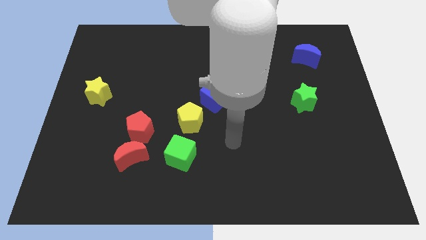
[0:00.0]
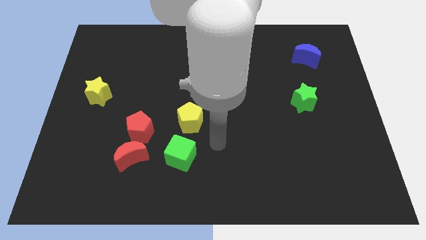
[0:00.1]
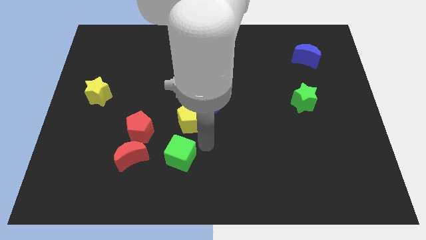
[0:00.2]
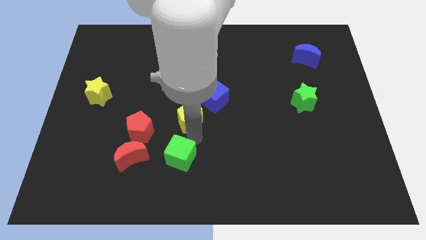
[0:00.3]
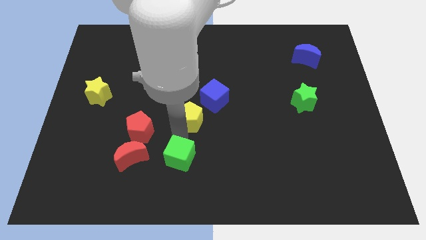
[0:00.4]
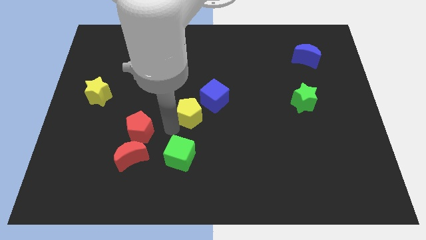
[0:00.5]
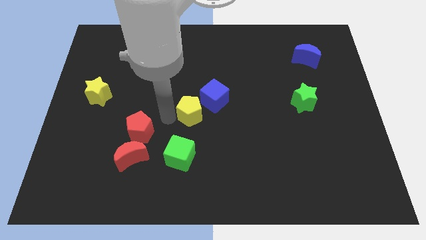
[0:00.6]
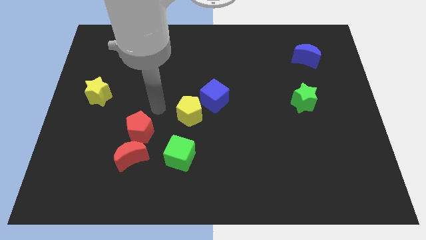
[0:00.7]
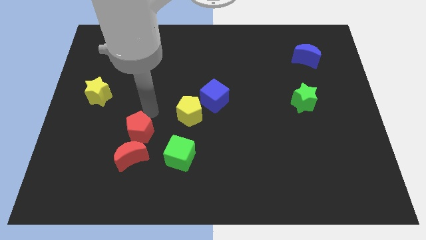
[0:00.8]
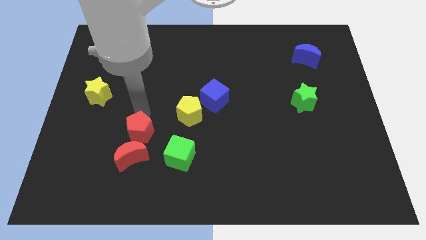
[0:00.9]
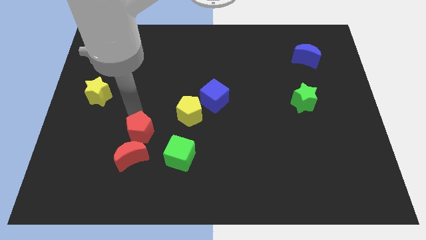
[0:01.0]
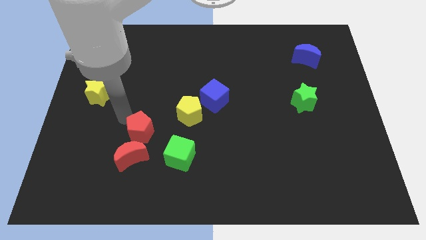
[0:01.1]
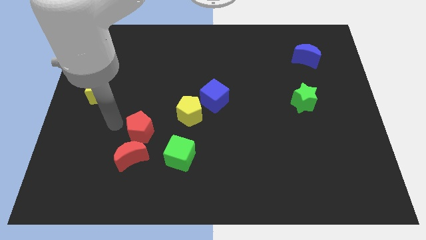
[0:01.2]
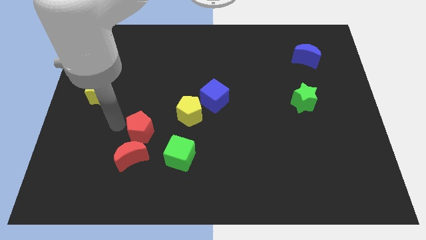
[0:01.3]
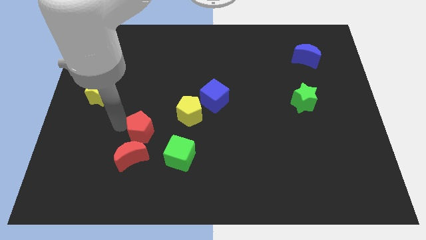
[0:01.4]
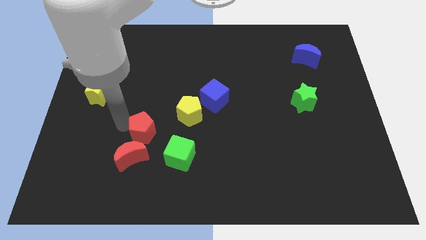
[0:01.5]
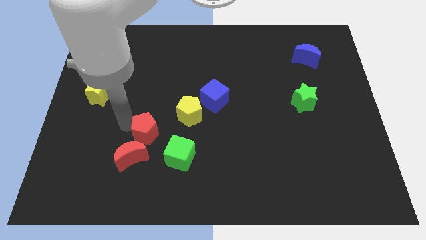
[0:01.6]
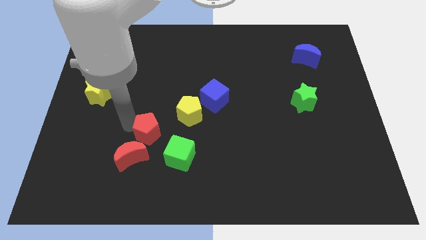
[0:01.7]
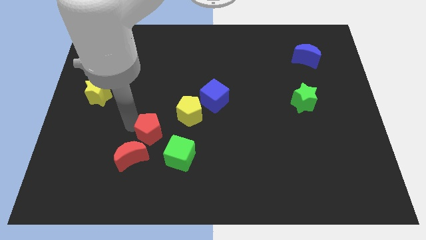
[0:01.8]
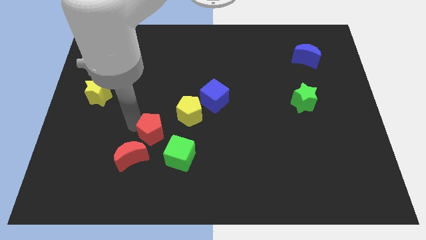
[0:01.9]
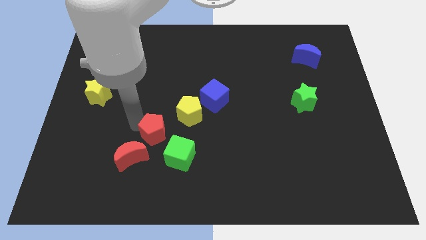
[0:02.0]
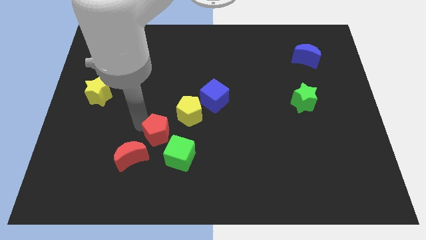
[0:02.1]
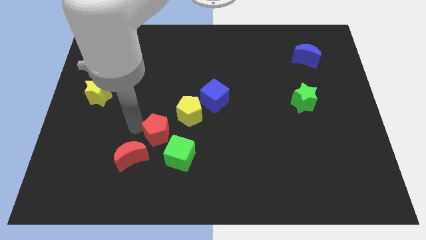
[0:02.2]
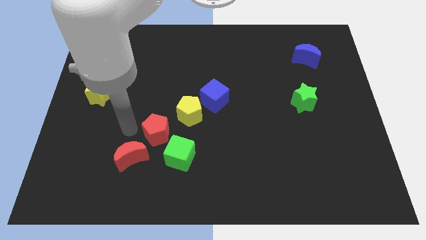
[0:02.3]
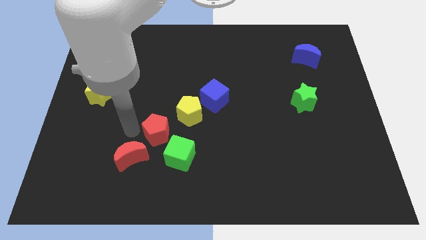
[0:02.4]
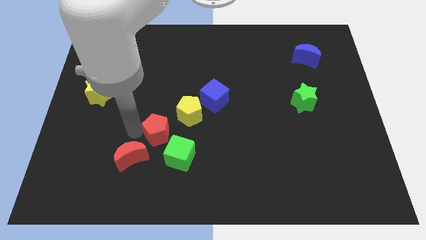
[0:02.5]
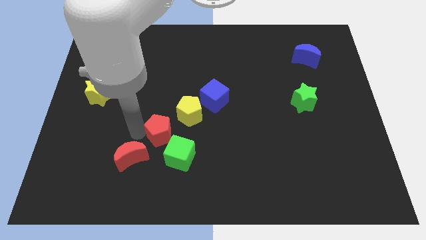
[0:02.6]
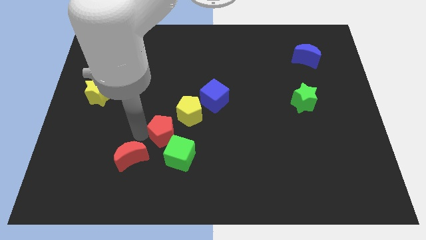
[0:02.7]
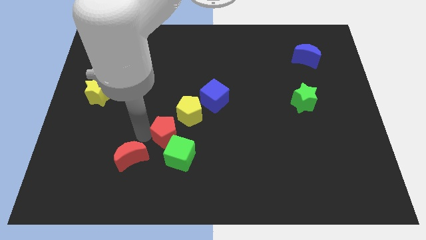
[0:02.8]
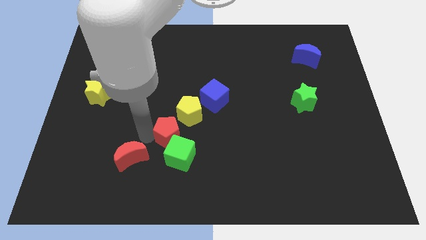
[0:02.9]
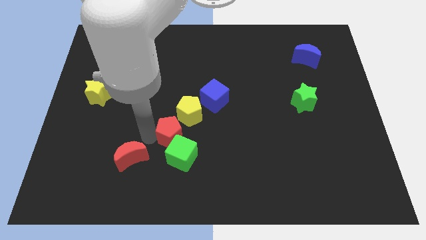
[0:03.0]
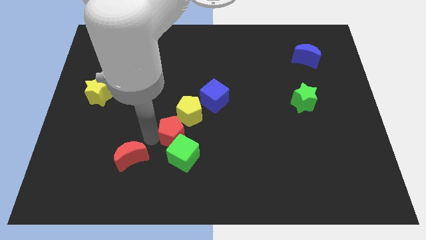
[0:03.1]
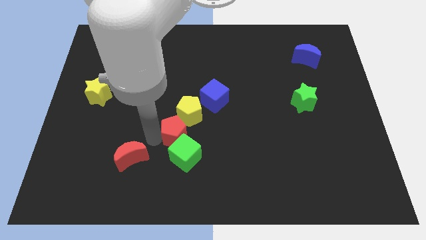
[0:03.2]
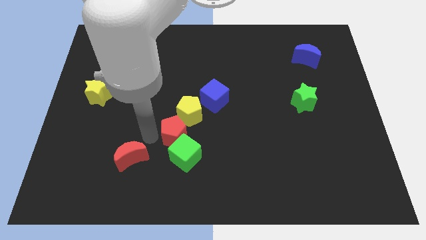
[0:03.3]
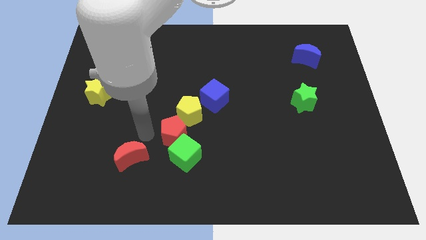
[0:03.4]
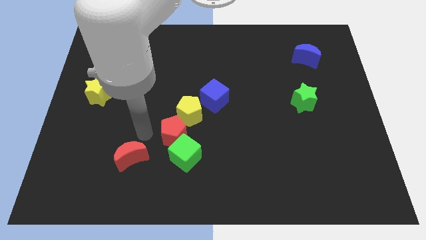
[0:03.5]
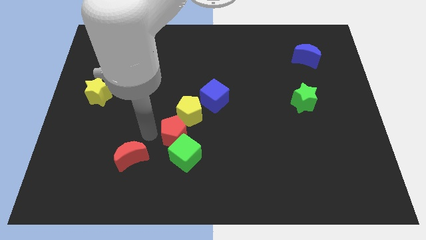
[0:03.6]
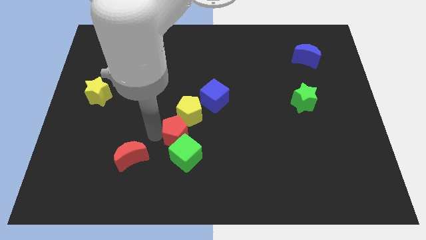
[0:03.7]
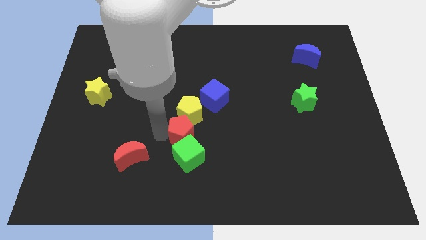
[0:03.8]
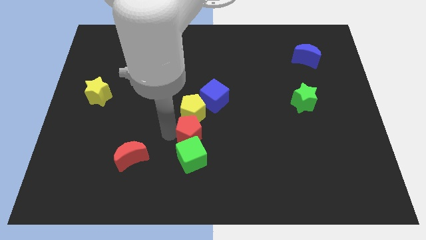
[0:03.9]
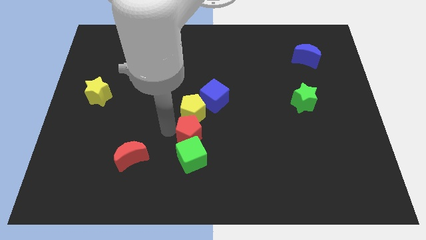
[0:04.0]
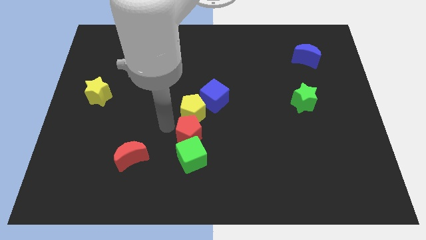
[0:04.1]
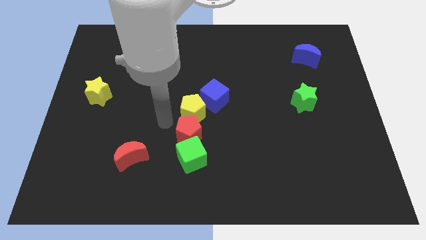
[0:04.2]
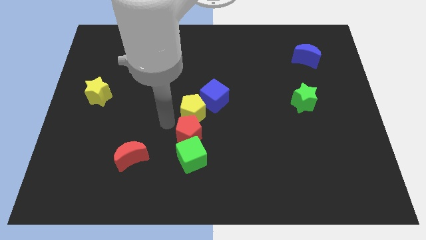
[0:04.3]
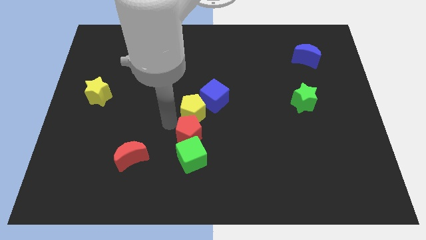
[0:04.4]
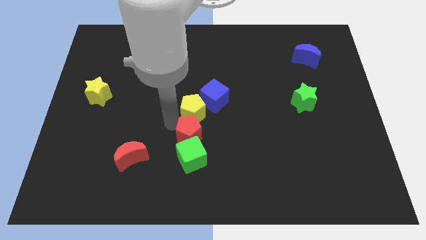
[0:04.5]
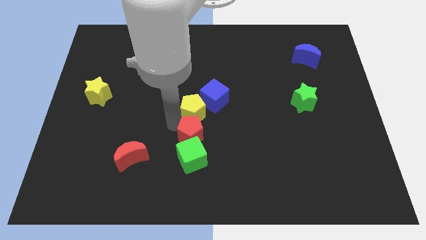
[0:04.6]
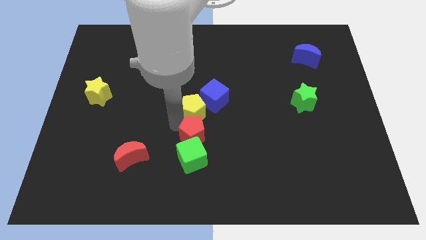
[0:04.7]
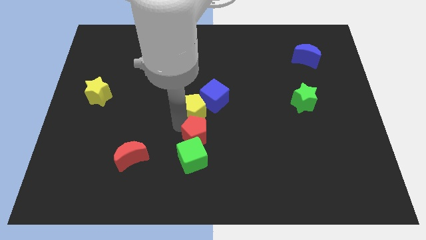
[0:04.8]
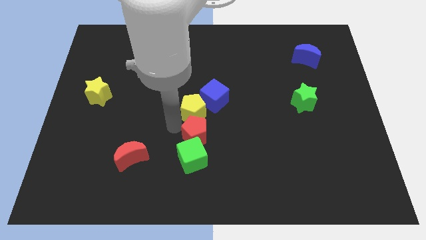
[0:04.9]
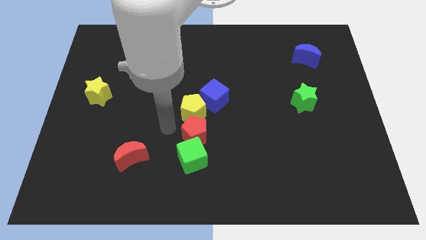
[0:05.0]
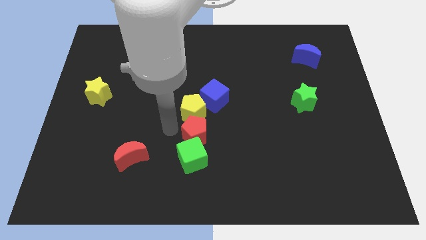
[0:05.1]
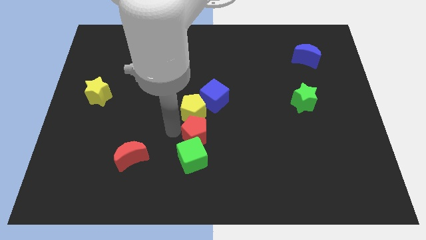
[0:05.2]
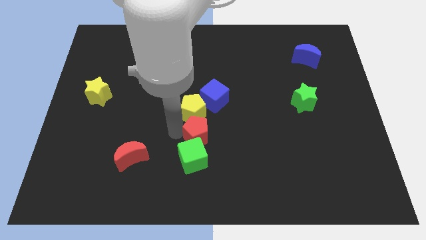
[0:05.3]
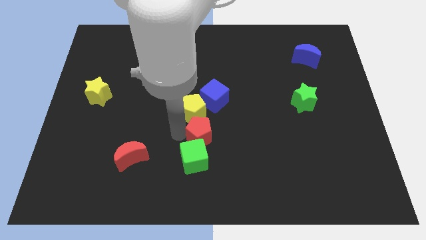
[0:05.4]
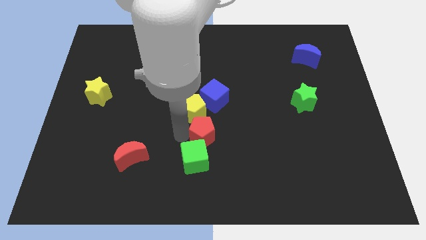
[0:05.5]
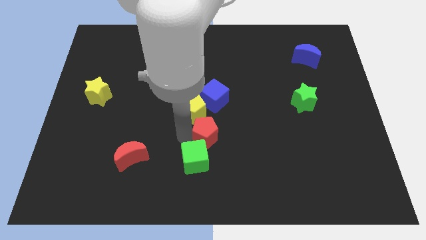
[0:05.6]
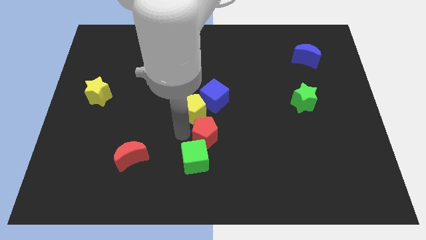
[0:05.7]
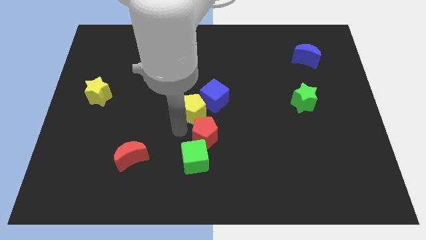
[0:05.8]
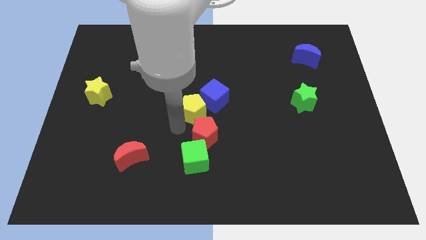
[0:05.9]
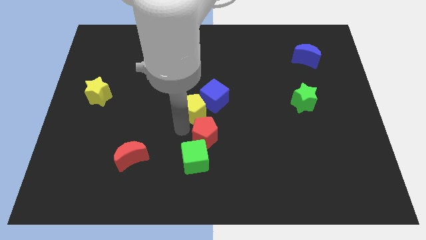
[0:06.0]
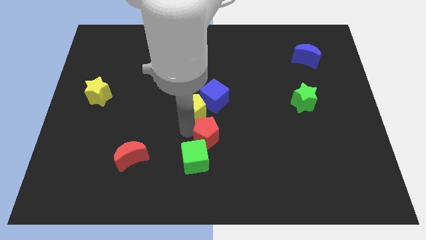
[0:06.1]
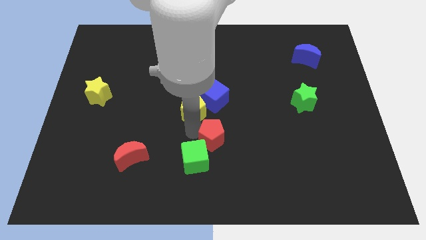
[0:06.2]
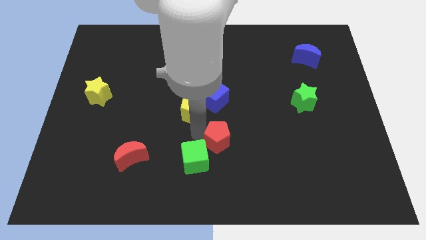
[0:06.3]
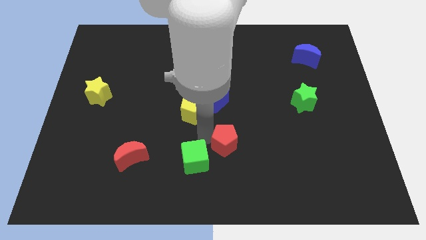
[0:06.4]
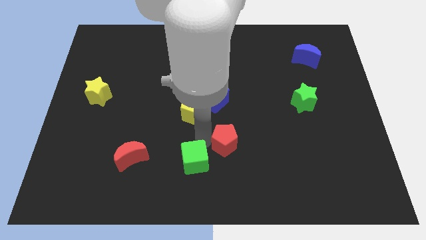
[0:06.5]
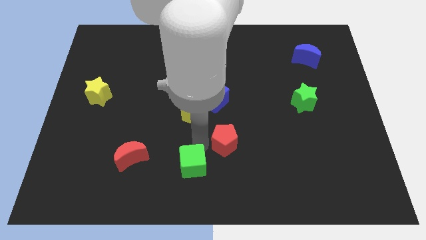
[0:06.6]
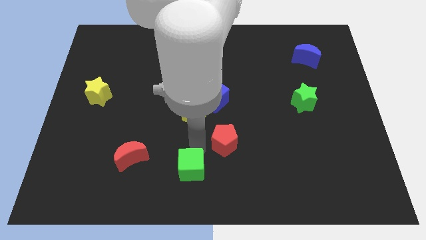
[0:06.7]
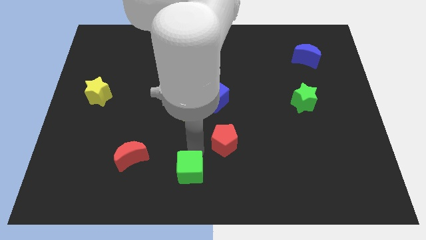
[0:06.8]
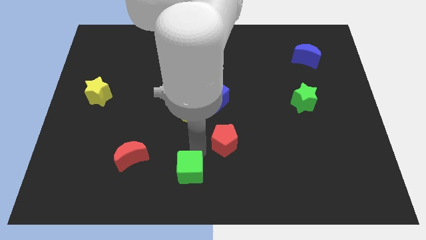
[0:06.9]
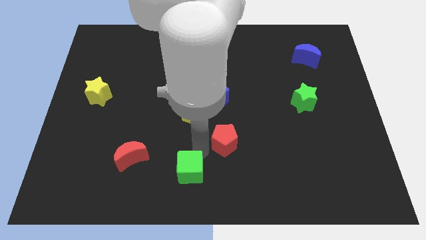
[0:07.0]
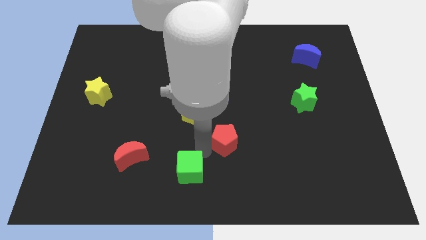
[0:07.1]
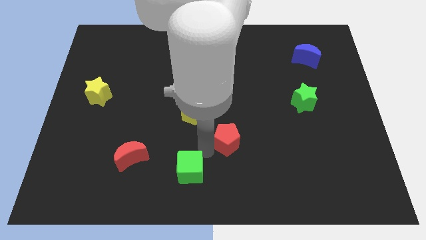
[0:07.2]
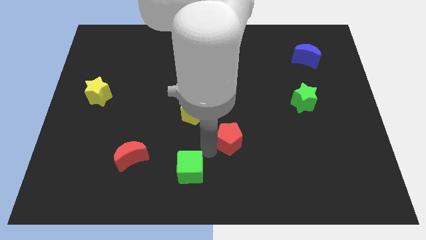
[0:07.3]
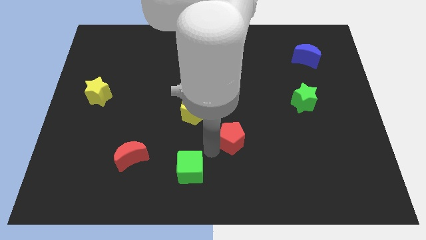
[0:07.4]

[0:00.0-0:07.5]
slide the red pentagon right

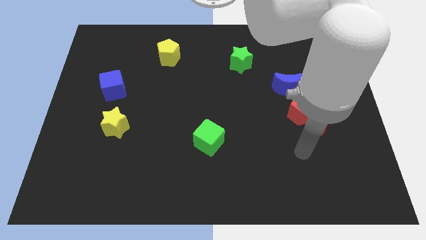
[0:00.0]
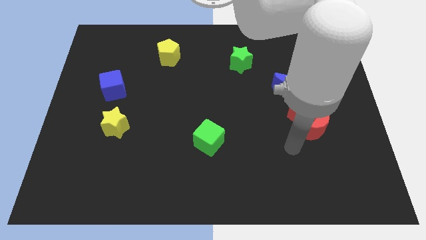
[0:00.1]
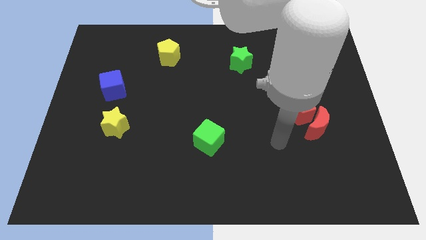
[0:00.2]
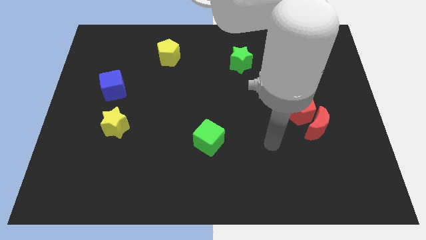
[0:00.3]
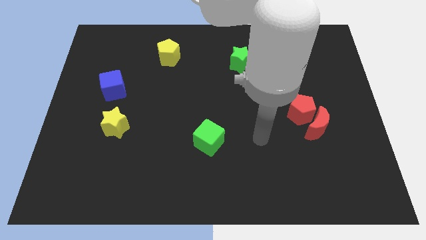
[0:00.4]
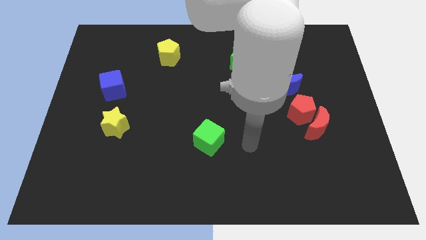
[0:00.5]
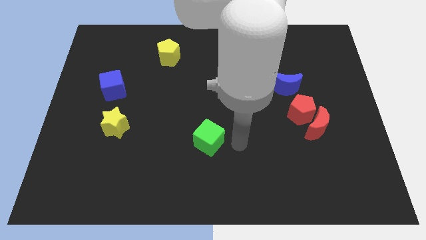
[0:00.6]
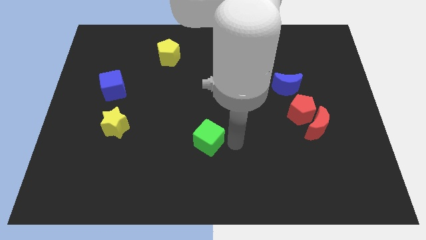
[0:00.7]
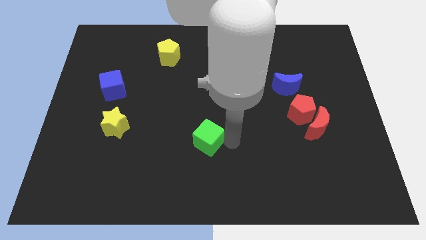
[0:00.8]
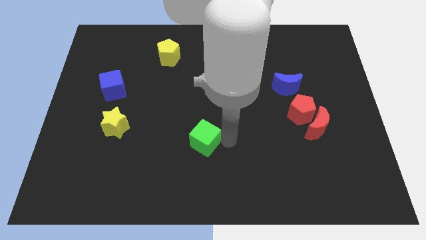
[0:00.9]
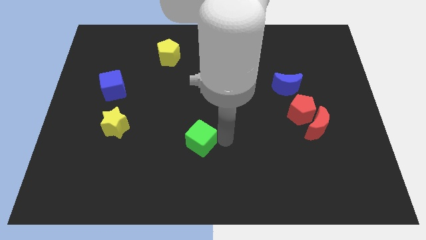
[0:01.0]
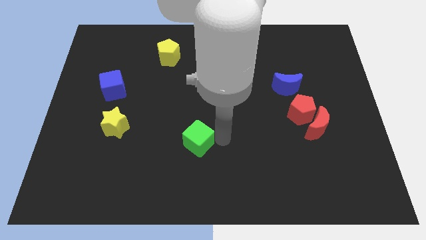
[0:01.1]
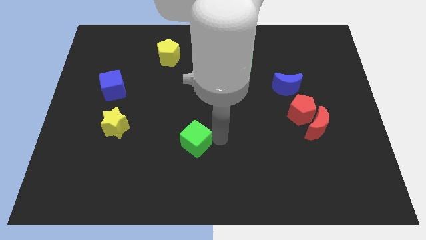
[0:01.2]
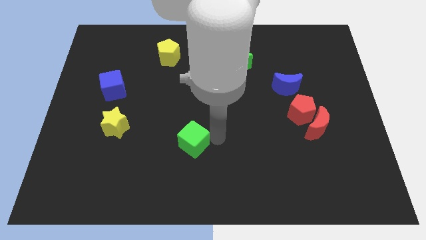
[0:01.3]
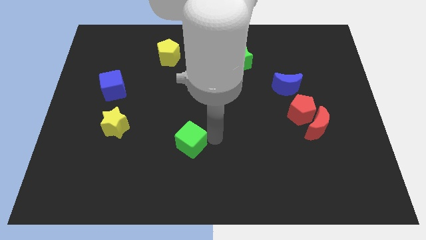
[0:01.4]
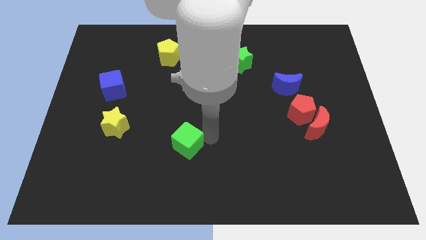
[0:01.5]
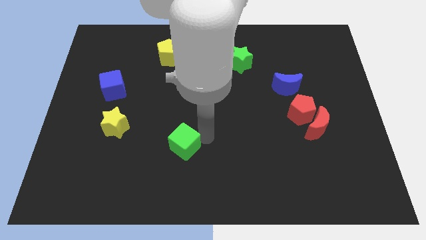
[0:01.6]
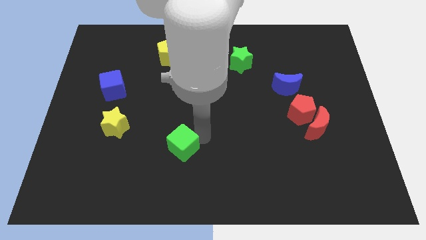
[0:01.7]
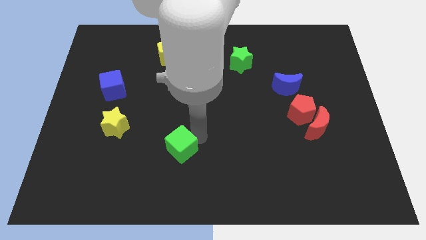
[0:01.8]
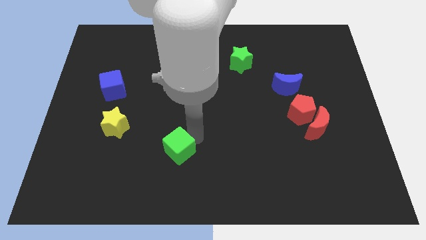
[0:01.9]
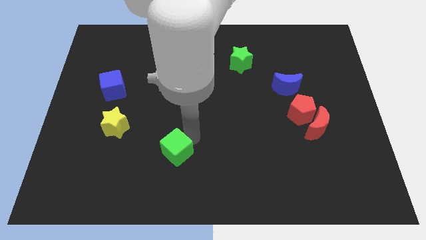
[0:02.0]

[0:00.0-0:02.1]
push the green cube slightly left
